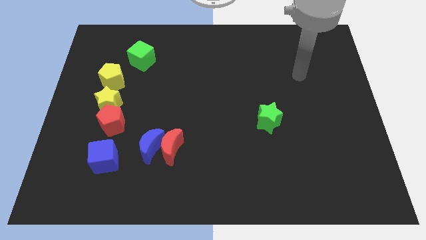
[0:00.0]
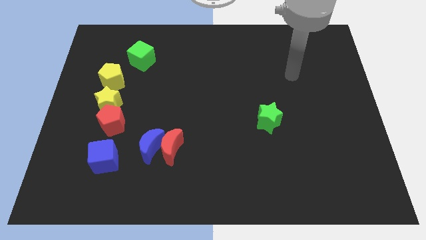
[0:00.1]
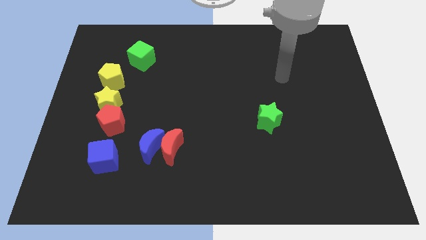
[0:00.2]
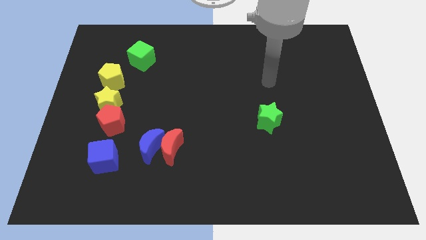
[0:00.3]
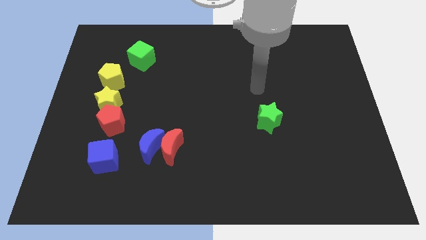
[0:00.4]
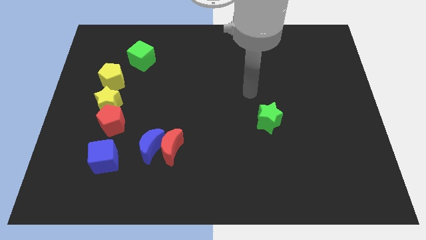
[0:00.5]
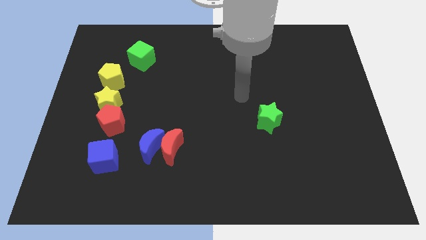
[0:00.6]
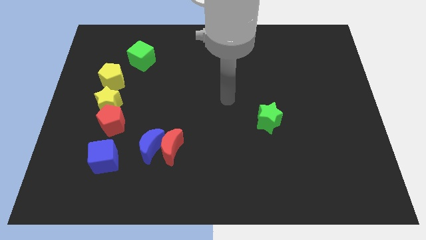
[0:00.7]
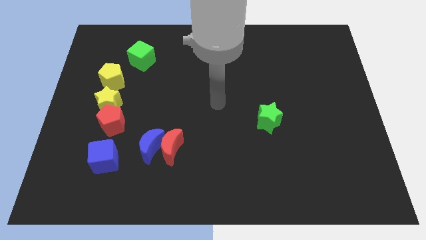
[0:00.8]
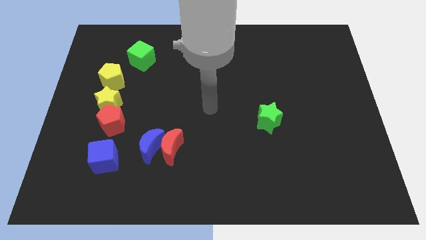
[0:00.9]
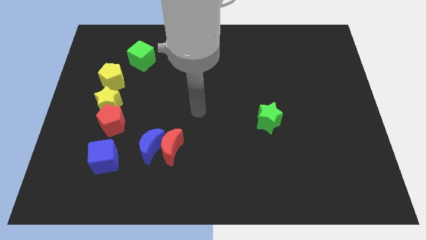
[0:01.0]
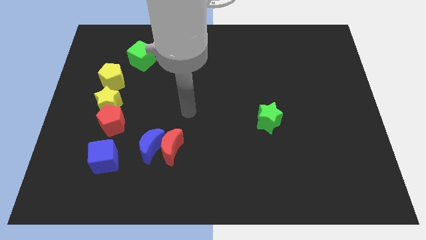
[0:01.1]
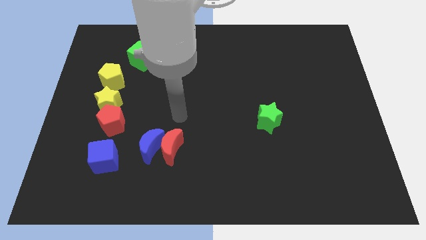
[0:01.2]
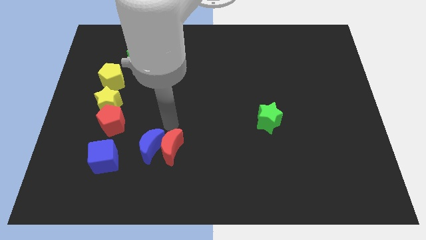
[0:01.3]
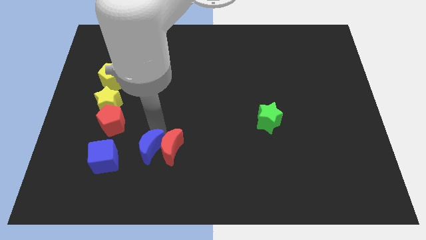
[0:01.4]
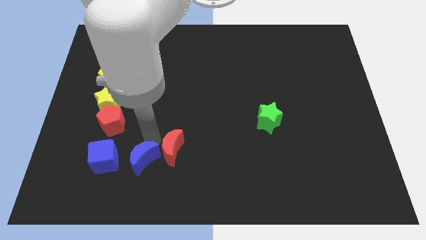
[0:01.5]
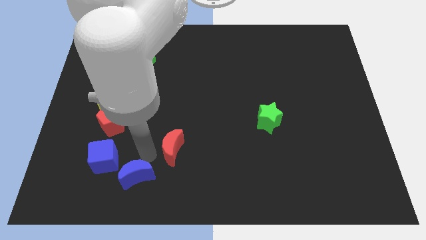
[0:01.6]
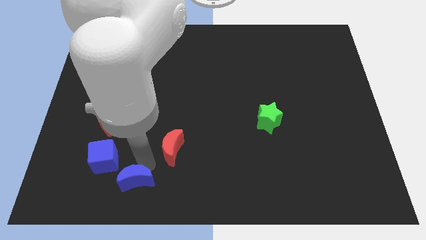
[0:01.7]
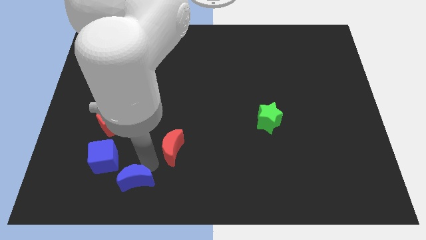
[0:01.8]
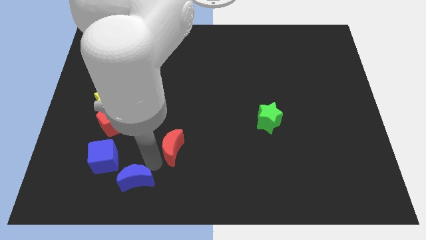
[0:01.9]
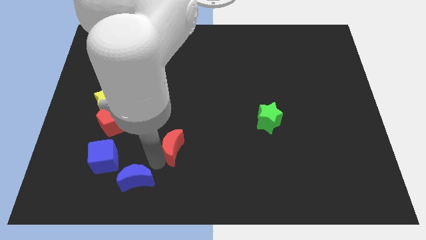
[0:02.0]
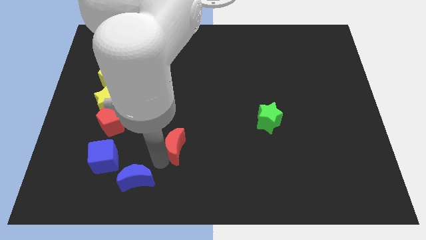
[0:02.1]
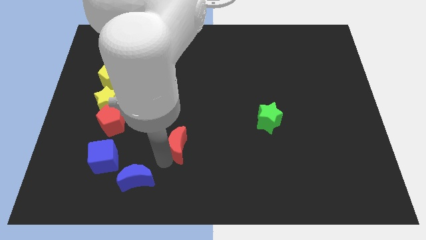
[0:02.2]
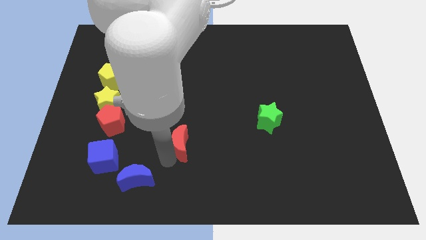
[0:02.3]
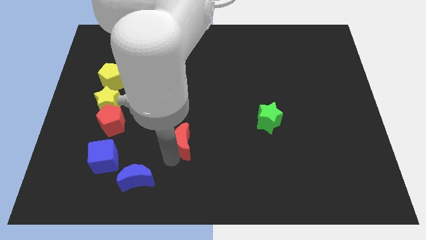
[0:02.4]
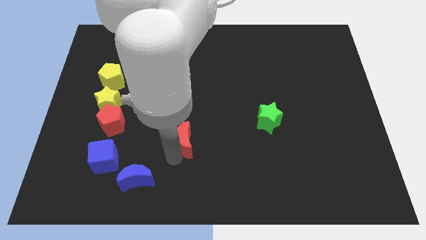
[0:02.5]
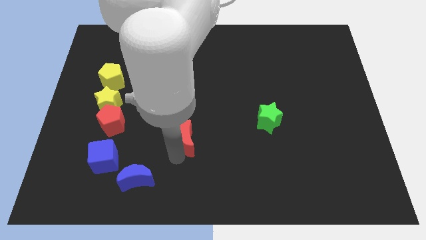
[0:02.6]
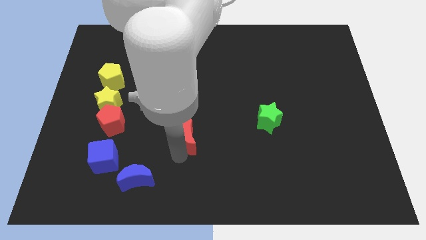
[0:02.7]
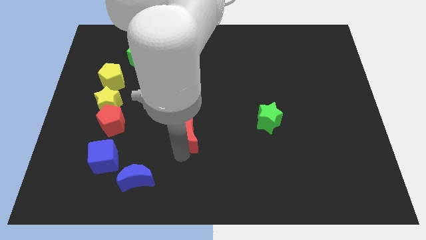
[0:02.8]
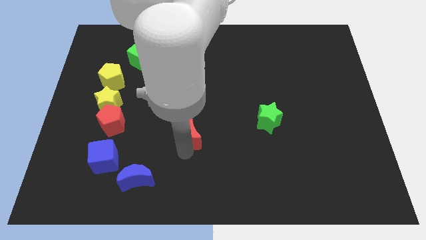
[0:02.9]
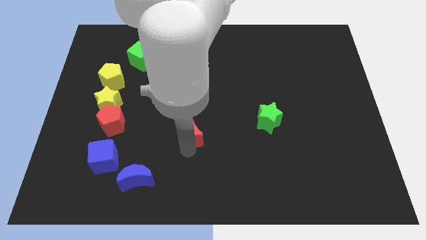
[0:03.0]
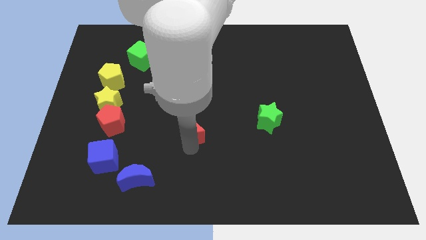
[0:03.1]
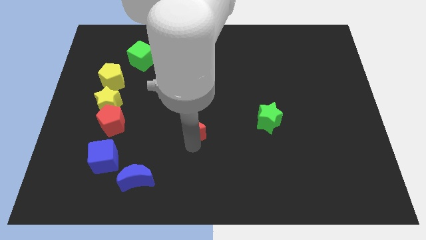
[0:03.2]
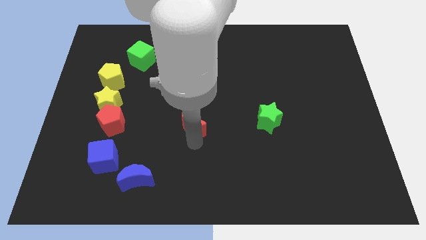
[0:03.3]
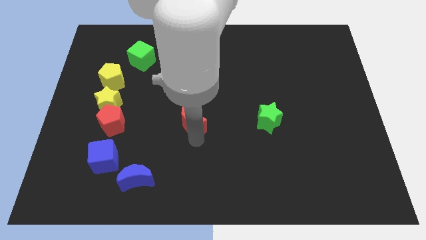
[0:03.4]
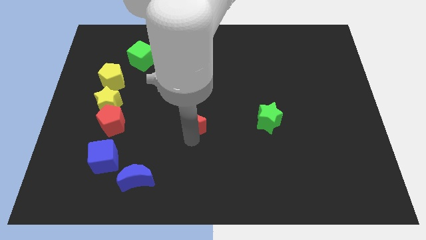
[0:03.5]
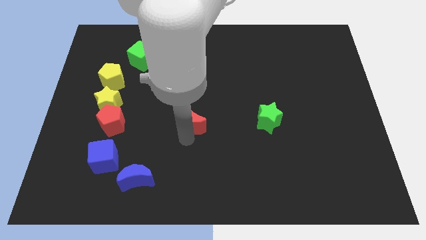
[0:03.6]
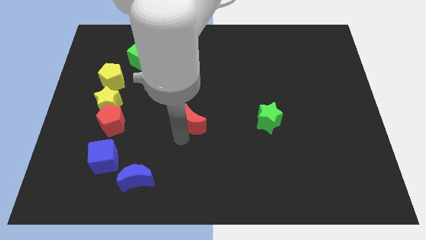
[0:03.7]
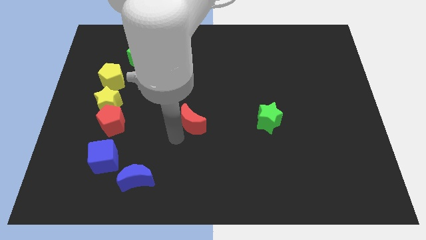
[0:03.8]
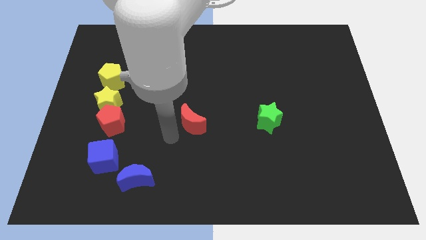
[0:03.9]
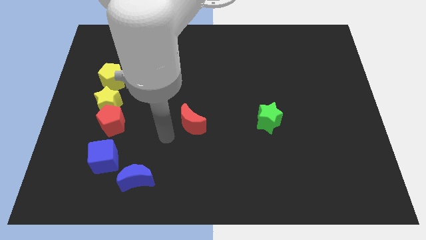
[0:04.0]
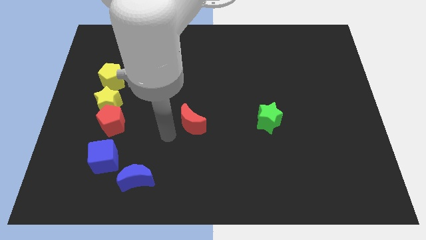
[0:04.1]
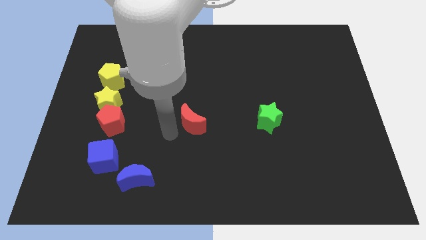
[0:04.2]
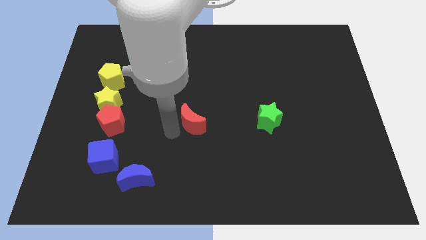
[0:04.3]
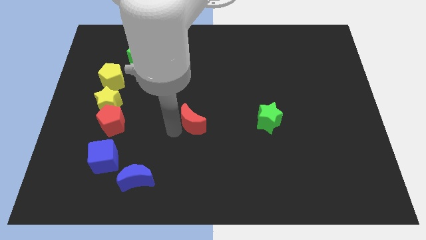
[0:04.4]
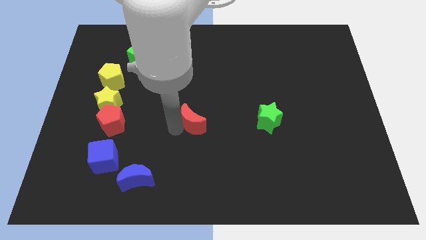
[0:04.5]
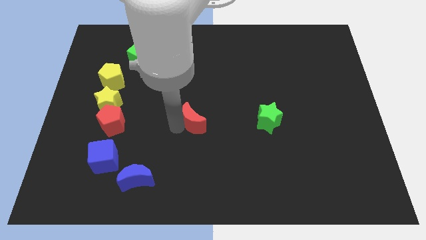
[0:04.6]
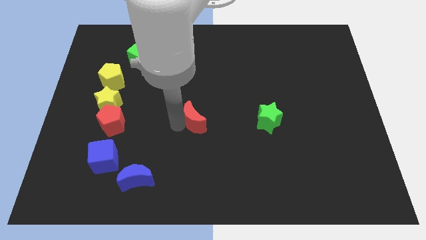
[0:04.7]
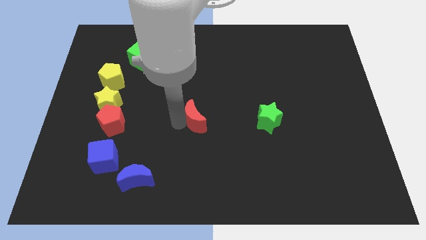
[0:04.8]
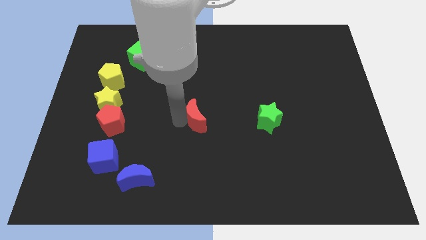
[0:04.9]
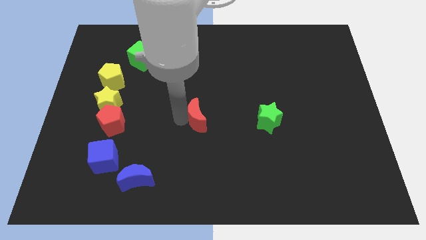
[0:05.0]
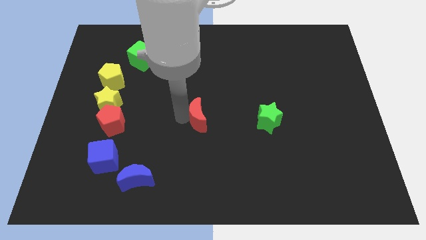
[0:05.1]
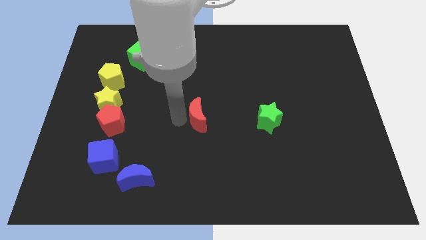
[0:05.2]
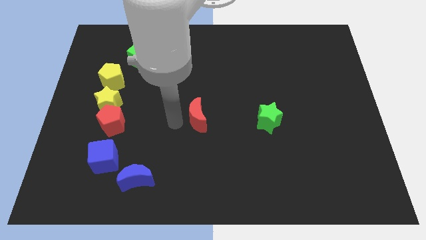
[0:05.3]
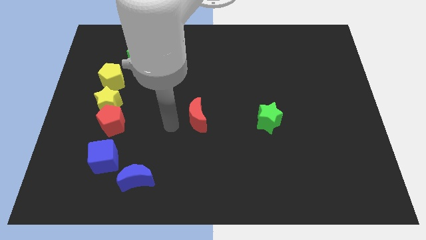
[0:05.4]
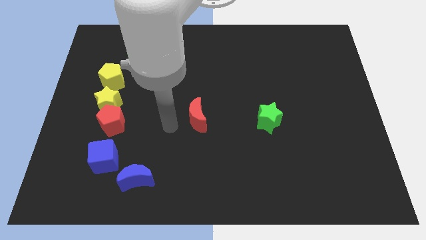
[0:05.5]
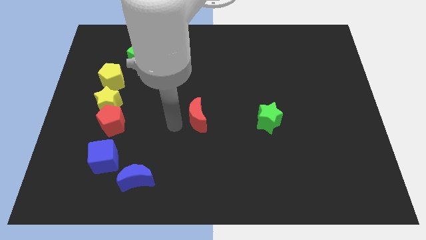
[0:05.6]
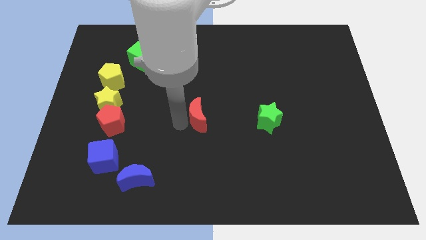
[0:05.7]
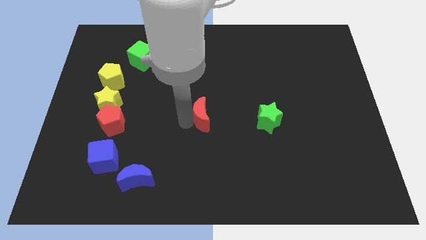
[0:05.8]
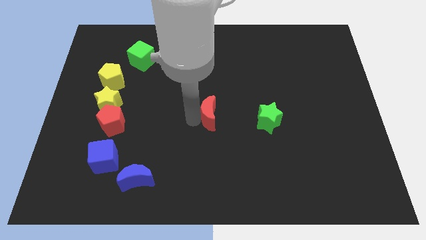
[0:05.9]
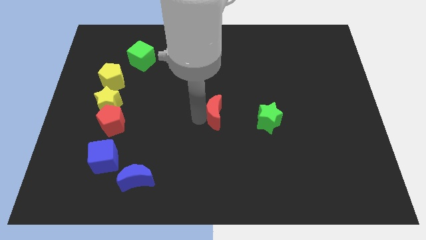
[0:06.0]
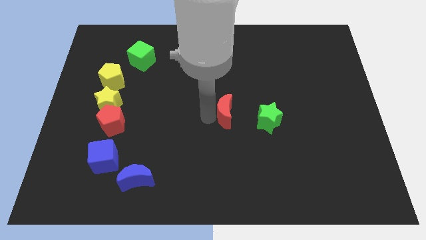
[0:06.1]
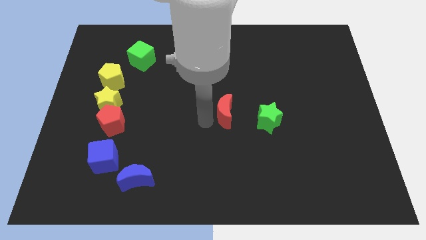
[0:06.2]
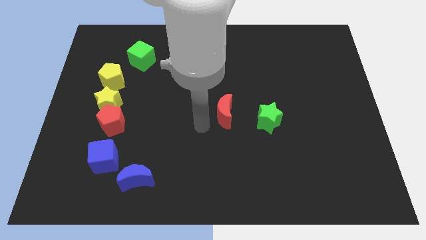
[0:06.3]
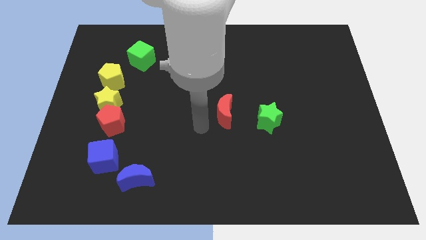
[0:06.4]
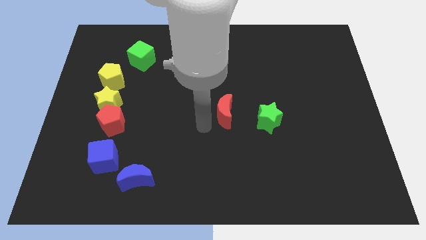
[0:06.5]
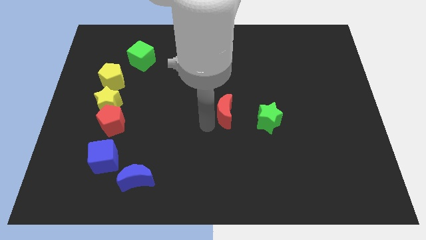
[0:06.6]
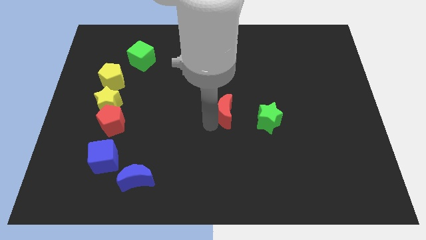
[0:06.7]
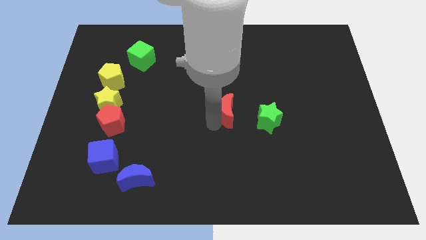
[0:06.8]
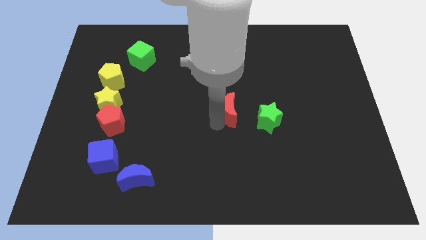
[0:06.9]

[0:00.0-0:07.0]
push the red moon to the top left side of the green star

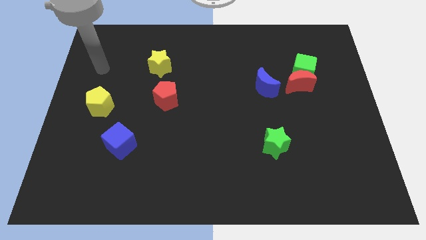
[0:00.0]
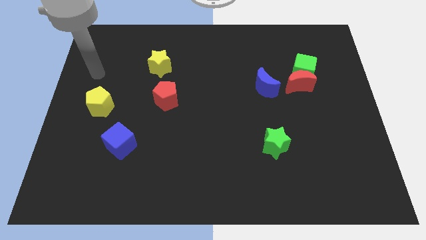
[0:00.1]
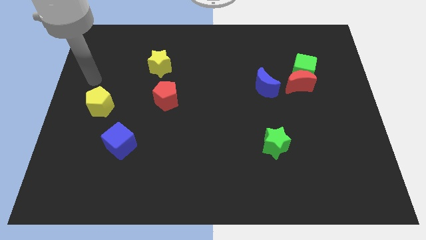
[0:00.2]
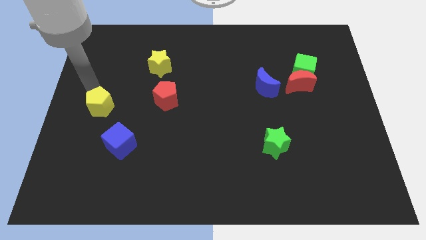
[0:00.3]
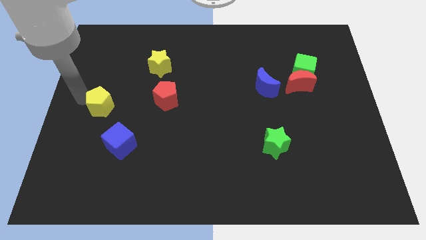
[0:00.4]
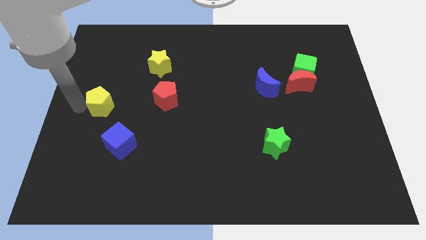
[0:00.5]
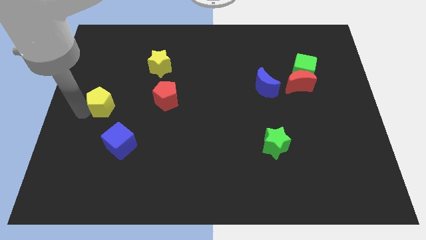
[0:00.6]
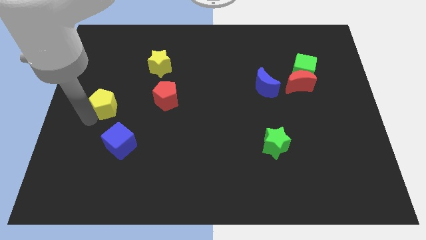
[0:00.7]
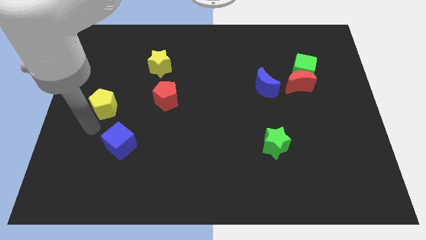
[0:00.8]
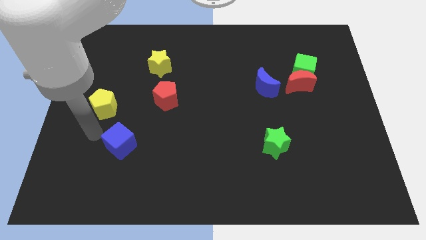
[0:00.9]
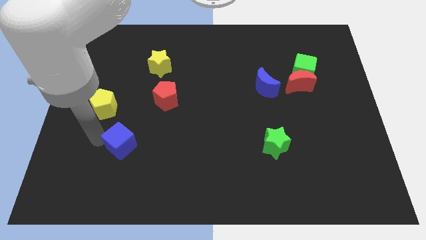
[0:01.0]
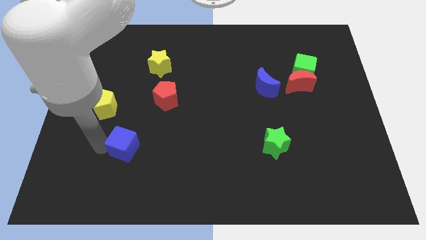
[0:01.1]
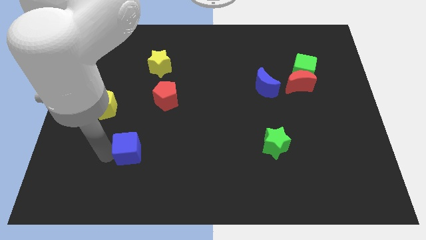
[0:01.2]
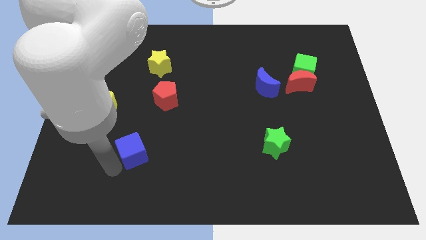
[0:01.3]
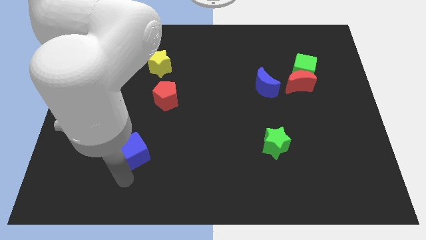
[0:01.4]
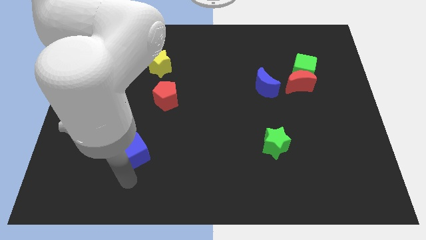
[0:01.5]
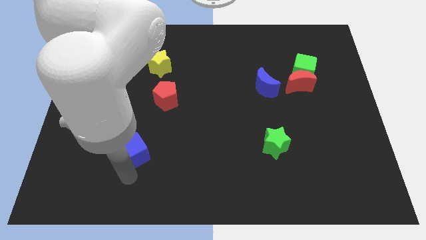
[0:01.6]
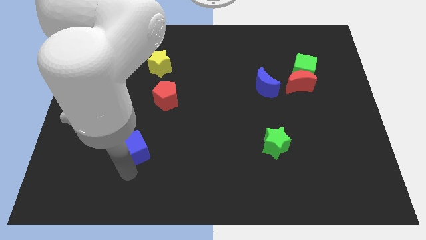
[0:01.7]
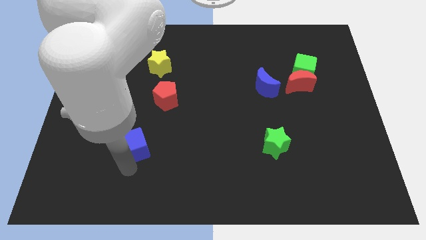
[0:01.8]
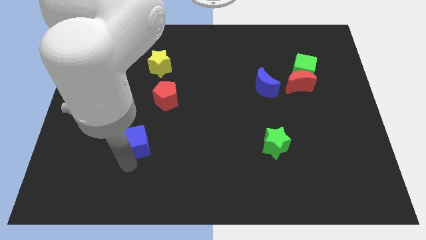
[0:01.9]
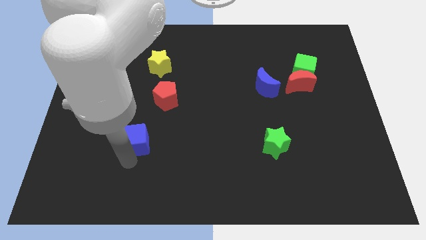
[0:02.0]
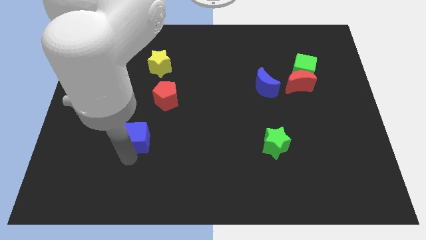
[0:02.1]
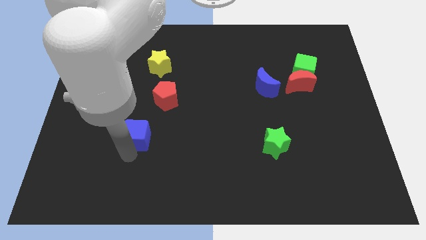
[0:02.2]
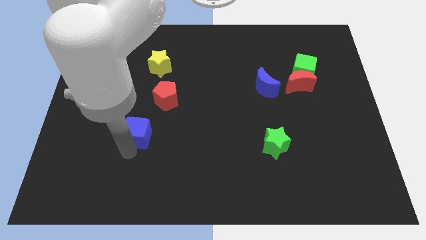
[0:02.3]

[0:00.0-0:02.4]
move the blue cube diagonally down and to the left of the red pentagon
